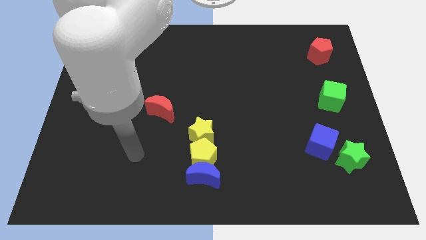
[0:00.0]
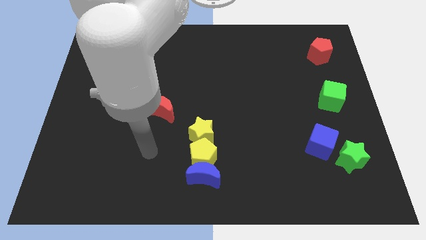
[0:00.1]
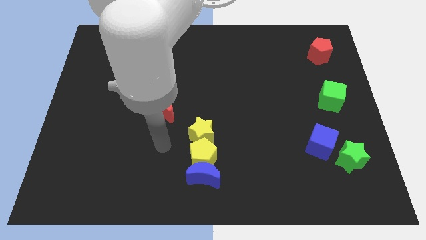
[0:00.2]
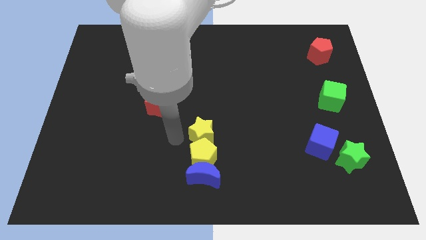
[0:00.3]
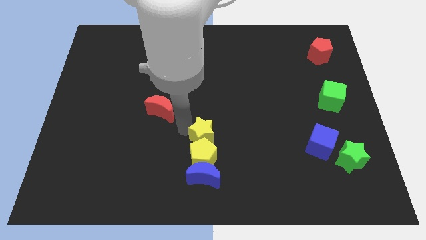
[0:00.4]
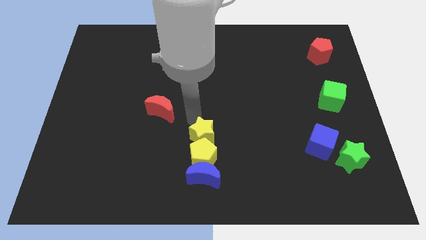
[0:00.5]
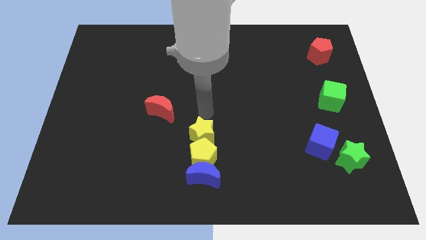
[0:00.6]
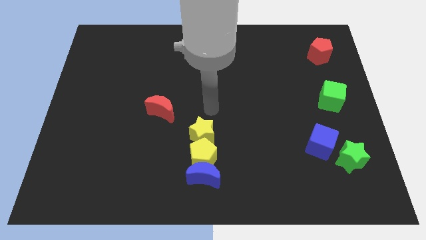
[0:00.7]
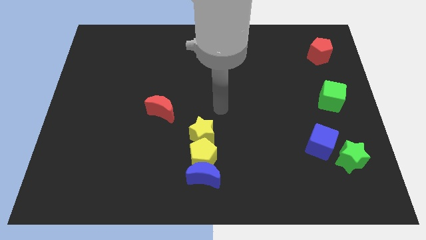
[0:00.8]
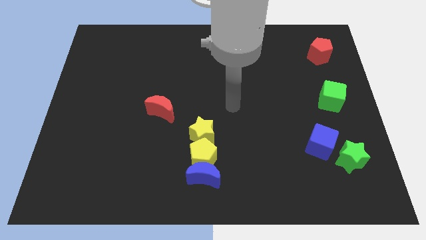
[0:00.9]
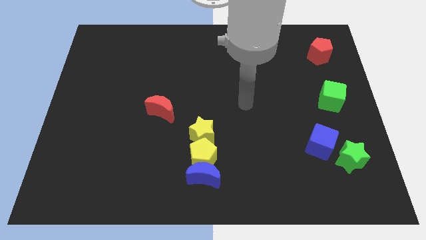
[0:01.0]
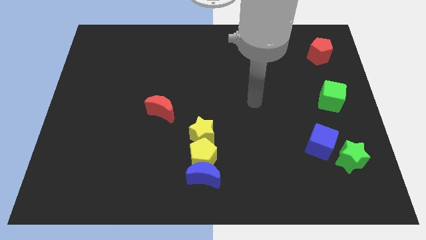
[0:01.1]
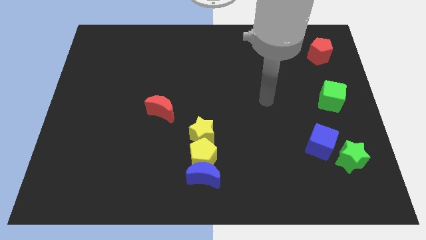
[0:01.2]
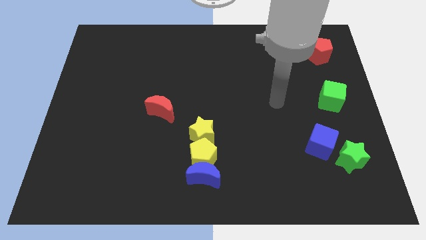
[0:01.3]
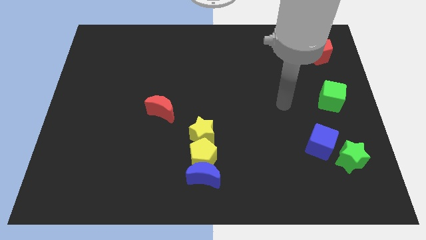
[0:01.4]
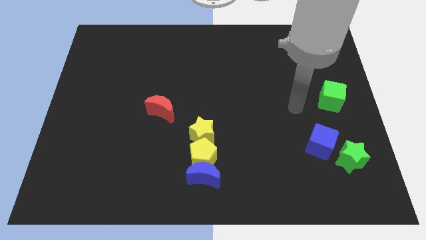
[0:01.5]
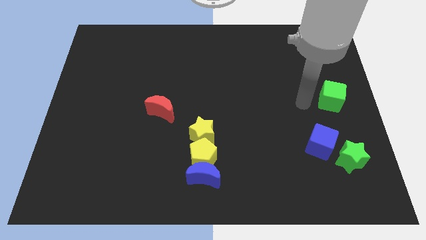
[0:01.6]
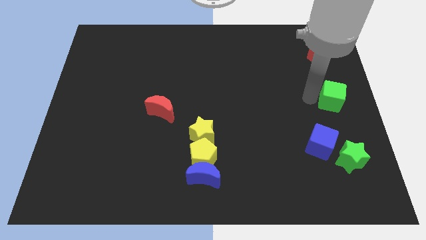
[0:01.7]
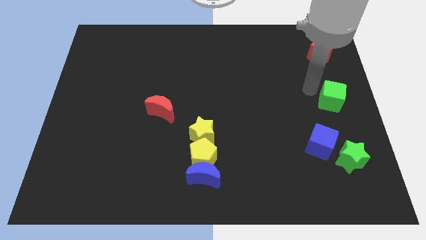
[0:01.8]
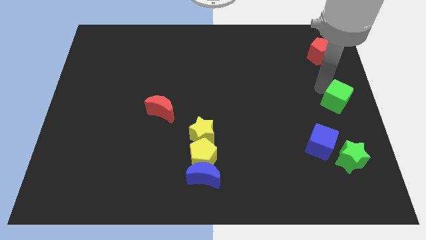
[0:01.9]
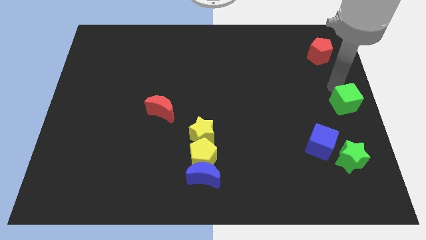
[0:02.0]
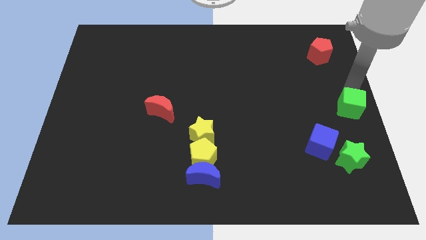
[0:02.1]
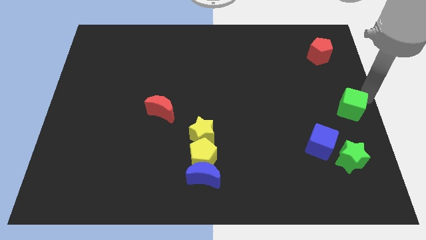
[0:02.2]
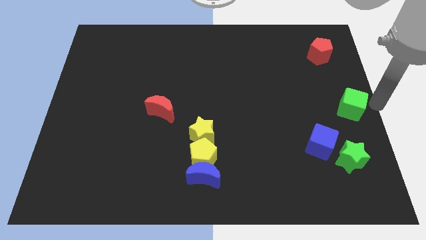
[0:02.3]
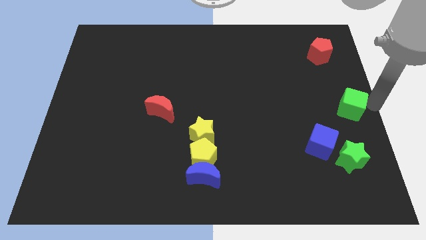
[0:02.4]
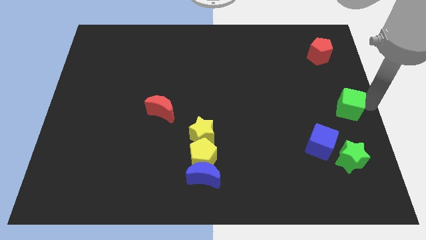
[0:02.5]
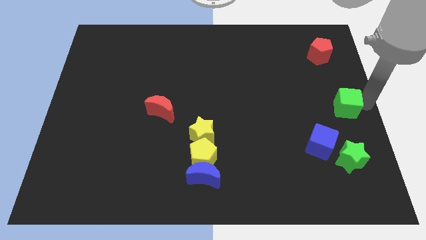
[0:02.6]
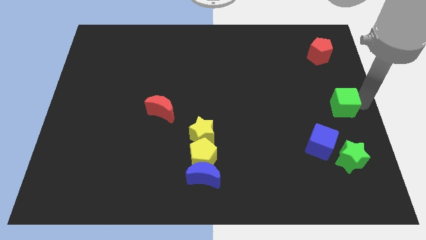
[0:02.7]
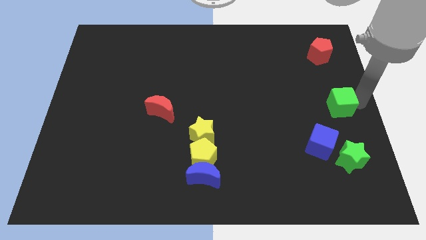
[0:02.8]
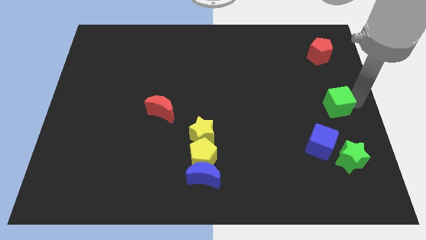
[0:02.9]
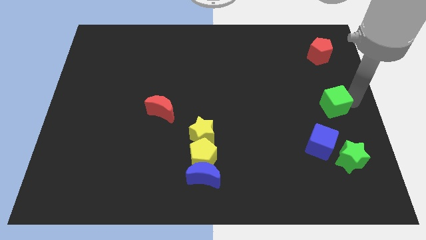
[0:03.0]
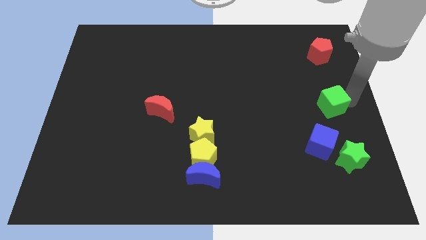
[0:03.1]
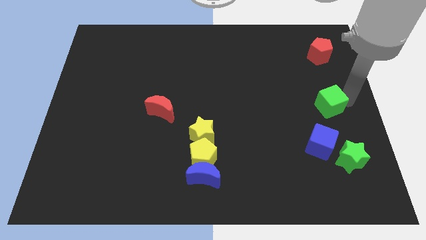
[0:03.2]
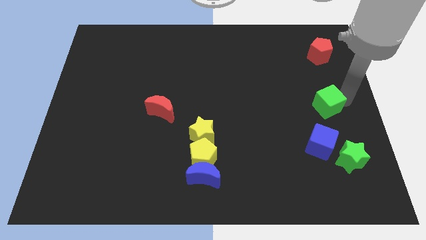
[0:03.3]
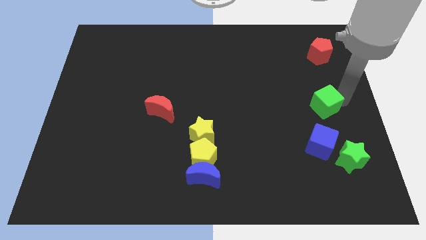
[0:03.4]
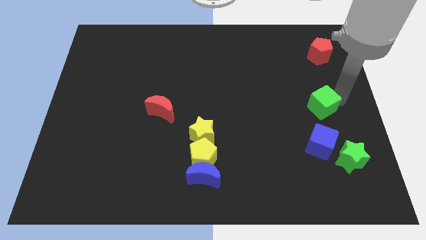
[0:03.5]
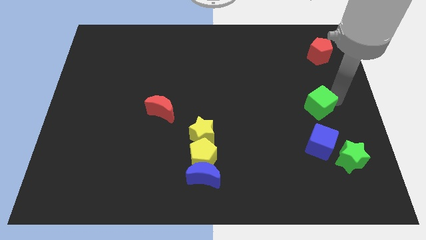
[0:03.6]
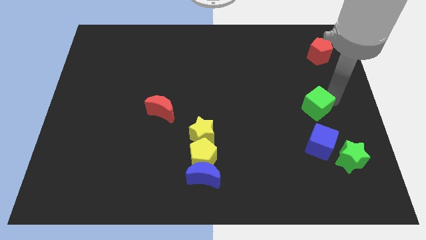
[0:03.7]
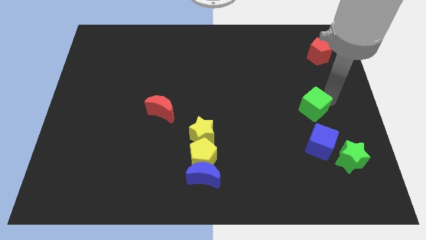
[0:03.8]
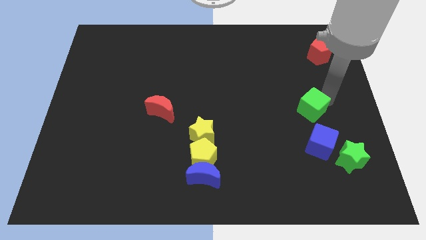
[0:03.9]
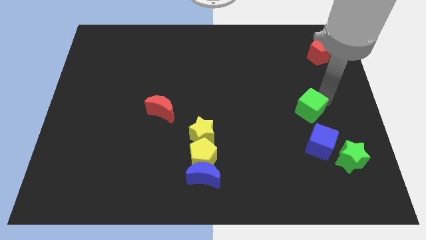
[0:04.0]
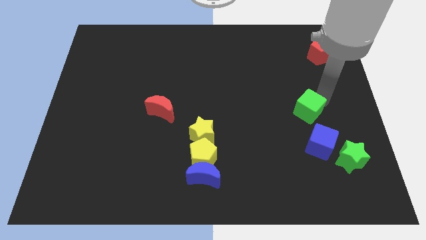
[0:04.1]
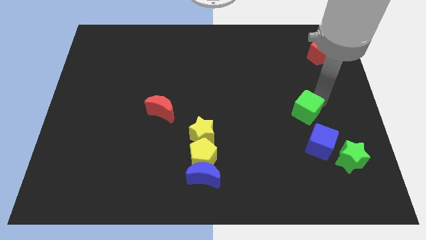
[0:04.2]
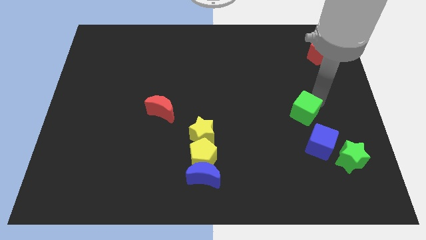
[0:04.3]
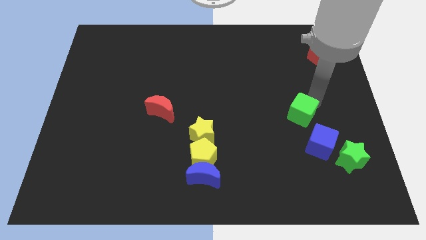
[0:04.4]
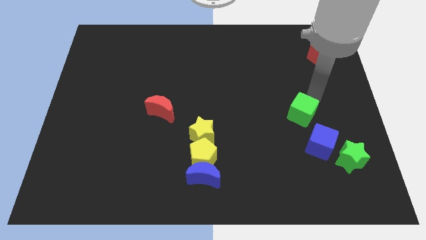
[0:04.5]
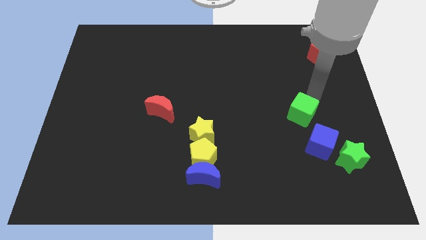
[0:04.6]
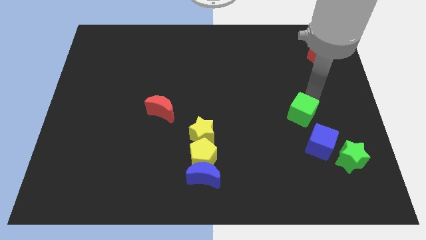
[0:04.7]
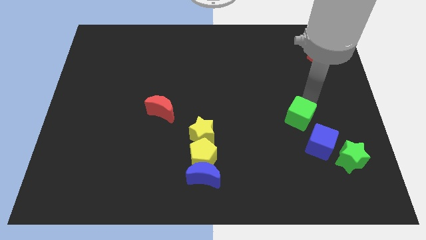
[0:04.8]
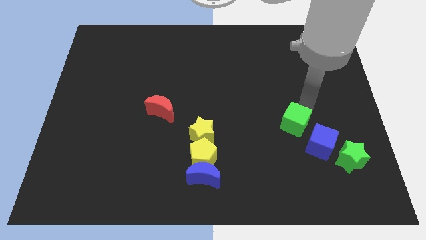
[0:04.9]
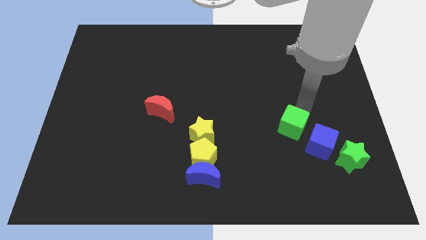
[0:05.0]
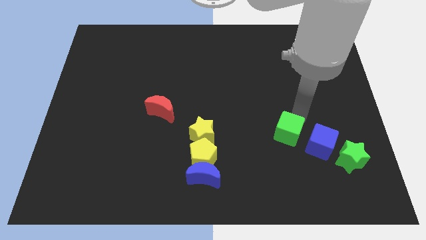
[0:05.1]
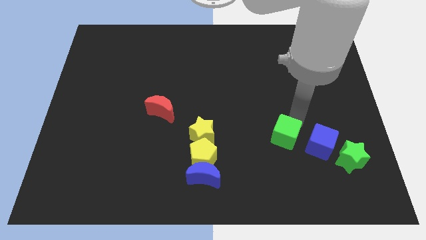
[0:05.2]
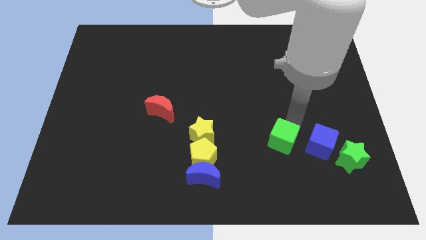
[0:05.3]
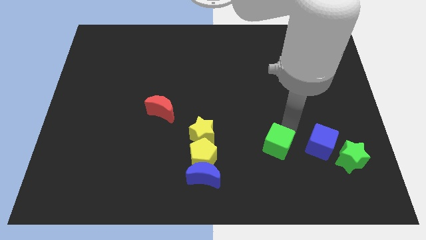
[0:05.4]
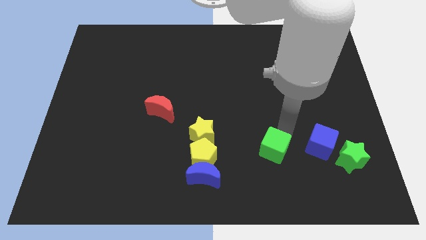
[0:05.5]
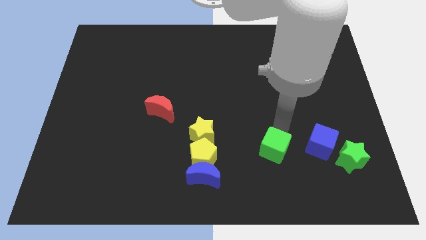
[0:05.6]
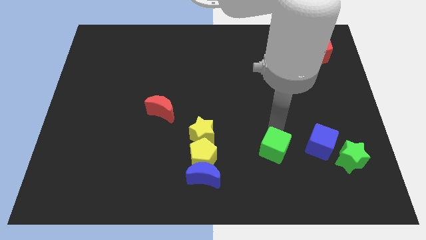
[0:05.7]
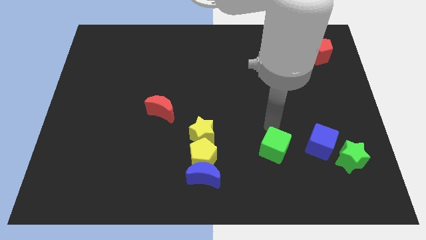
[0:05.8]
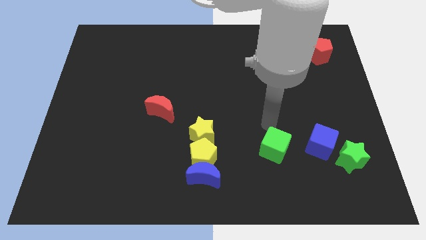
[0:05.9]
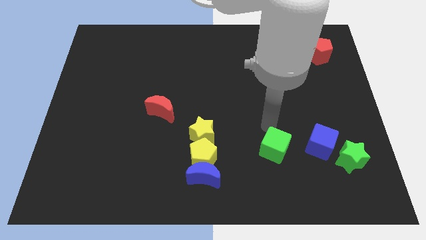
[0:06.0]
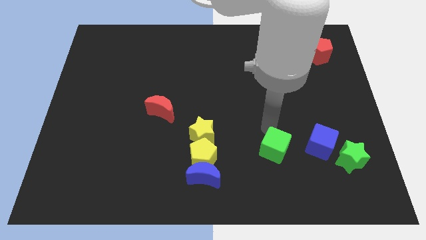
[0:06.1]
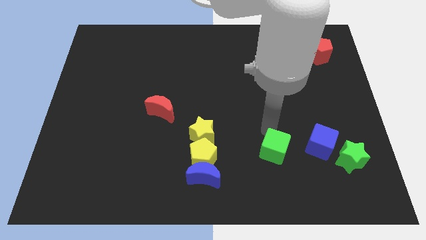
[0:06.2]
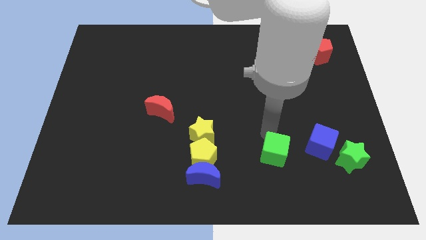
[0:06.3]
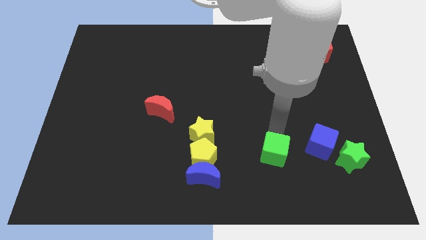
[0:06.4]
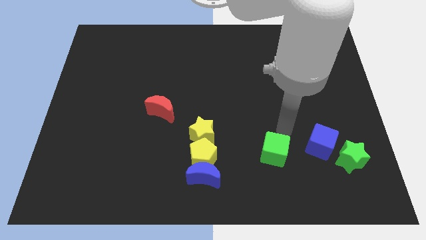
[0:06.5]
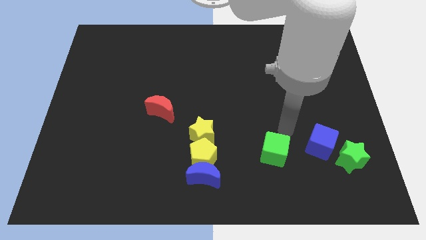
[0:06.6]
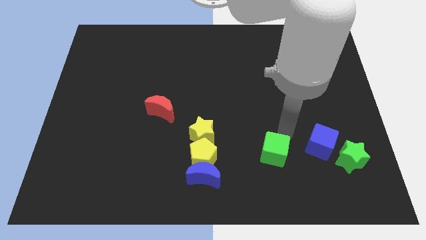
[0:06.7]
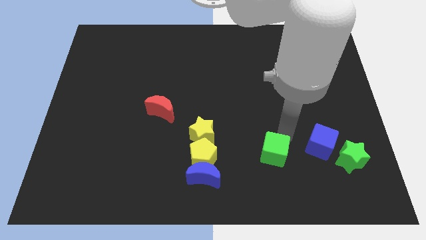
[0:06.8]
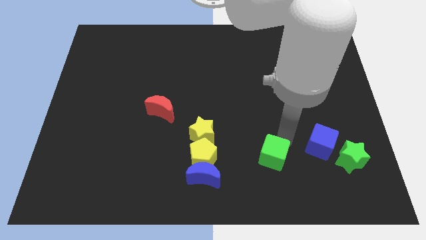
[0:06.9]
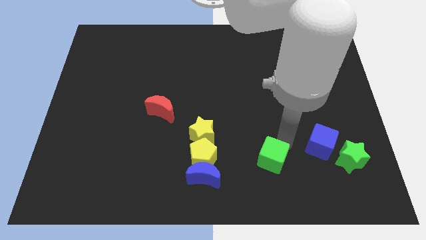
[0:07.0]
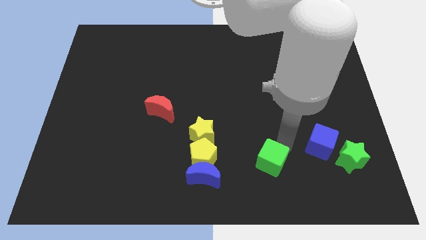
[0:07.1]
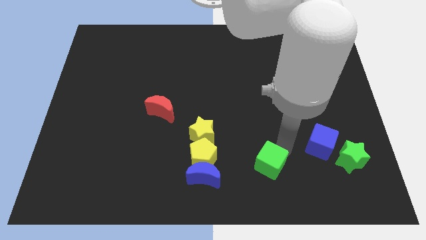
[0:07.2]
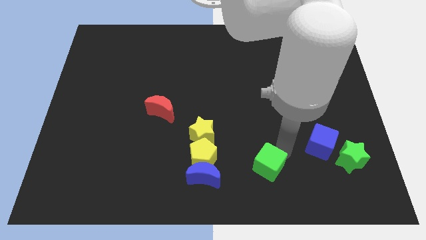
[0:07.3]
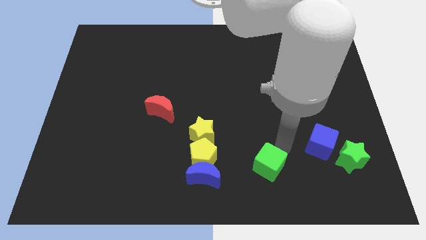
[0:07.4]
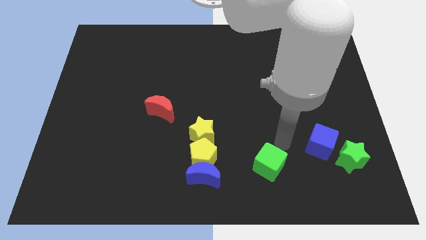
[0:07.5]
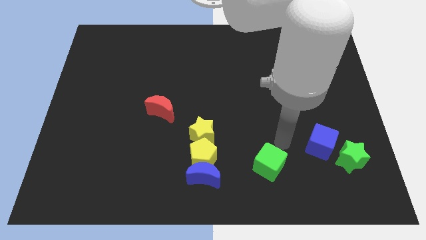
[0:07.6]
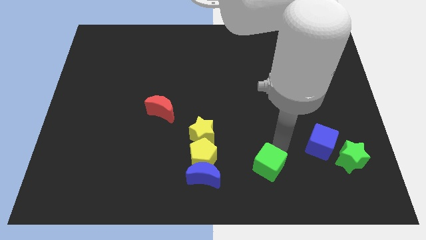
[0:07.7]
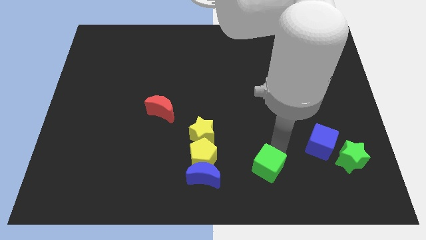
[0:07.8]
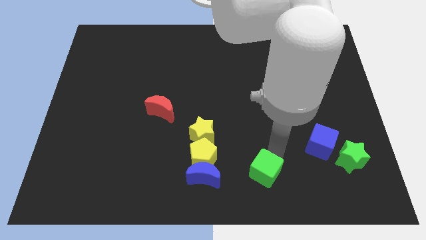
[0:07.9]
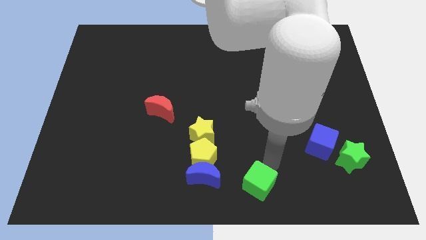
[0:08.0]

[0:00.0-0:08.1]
move the green cube to the bottom
